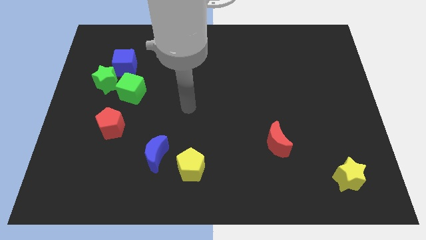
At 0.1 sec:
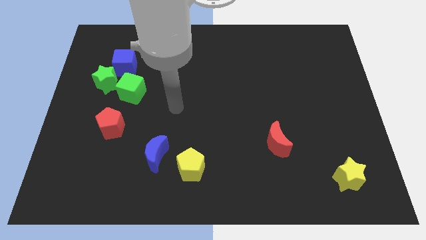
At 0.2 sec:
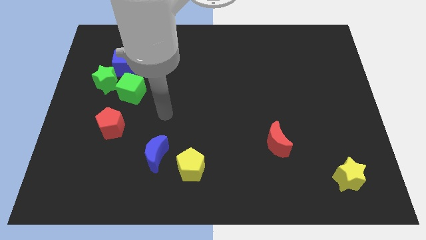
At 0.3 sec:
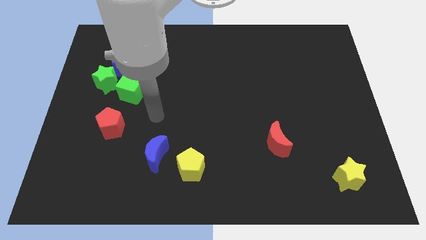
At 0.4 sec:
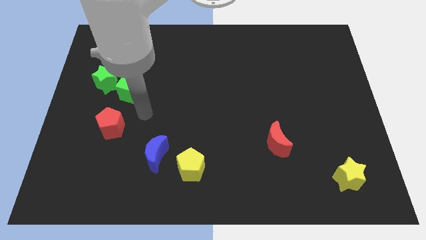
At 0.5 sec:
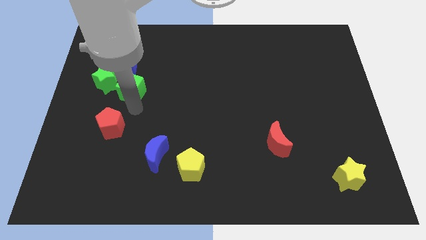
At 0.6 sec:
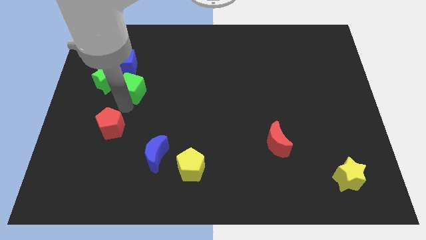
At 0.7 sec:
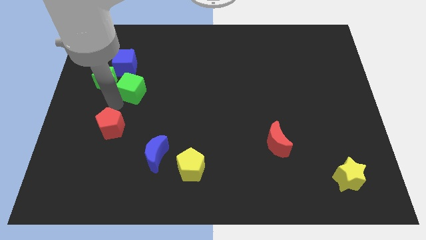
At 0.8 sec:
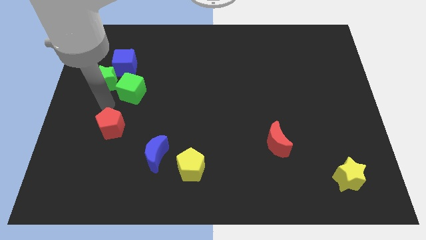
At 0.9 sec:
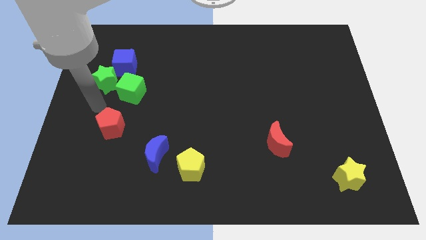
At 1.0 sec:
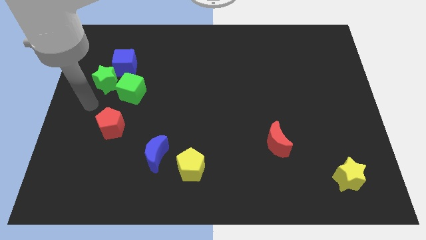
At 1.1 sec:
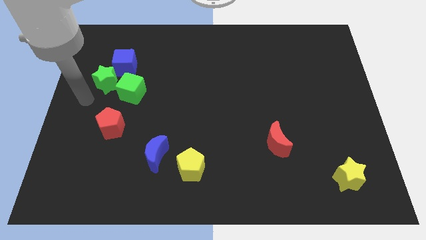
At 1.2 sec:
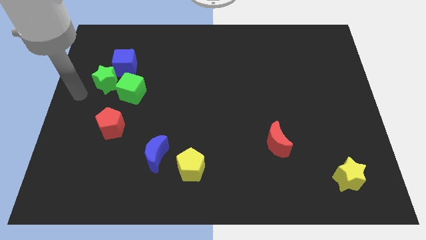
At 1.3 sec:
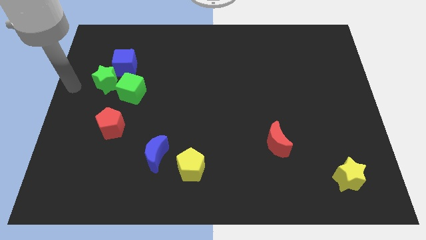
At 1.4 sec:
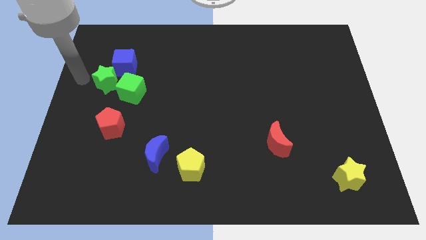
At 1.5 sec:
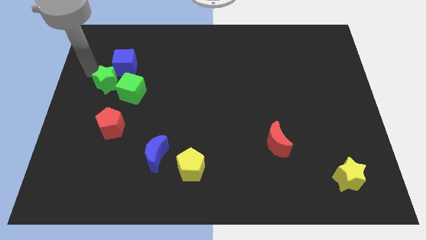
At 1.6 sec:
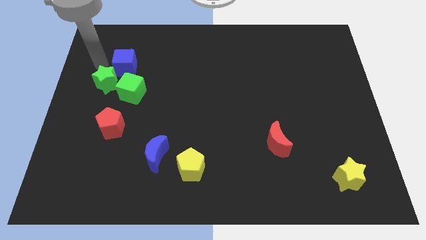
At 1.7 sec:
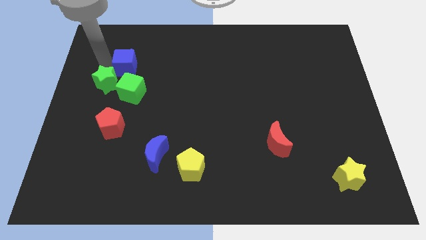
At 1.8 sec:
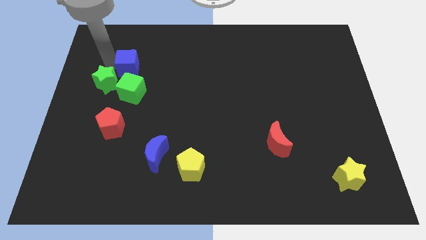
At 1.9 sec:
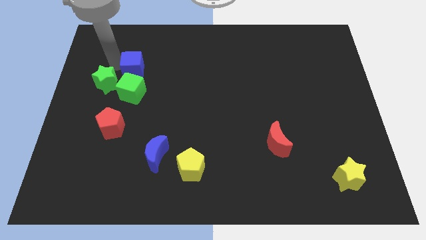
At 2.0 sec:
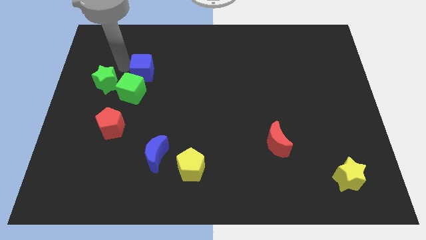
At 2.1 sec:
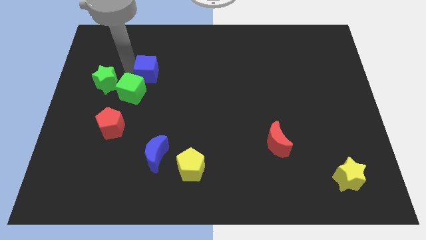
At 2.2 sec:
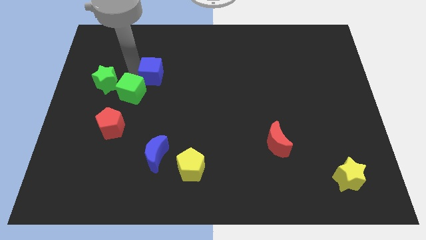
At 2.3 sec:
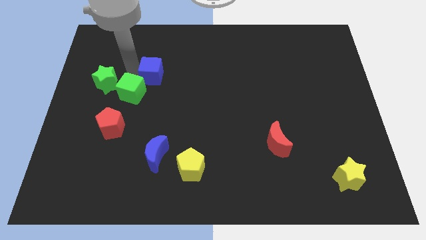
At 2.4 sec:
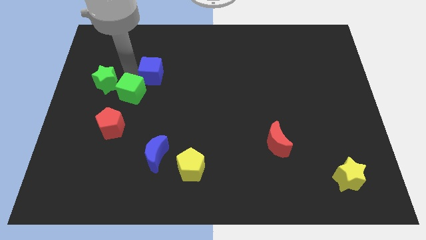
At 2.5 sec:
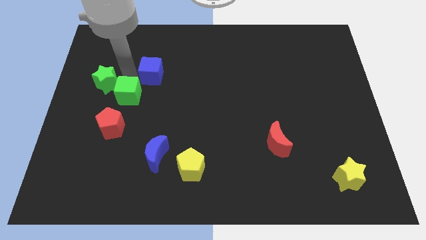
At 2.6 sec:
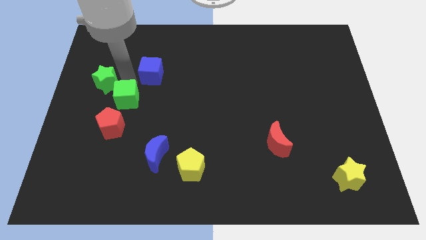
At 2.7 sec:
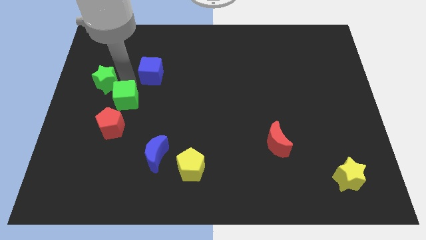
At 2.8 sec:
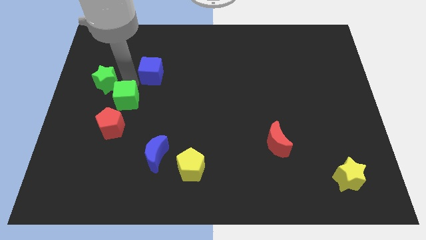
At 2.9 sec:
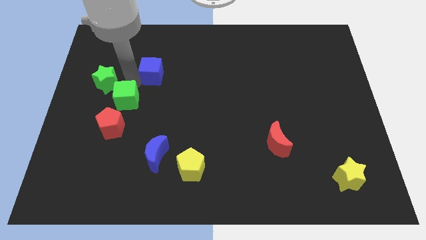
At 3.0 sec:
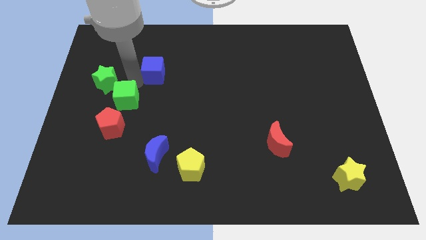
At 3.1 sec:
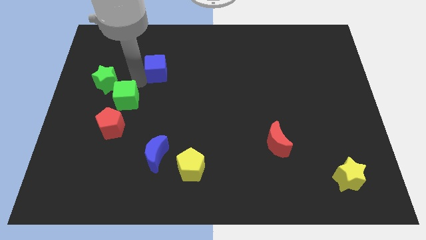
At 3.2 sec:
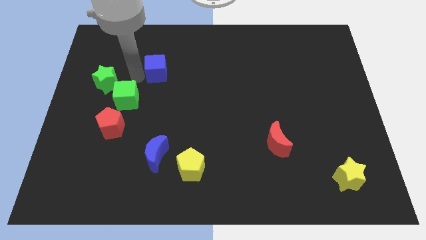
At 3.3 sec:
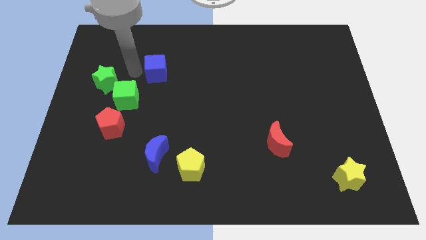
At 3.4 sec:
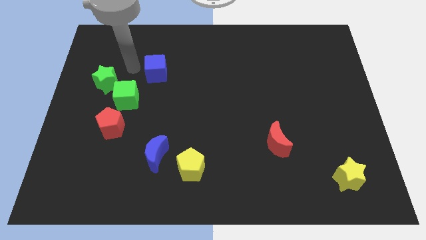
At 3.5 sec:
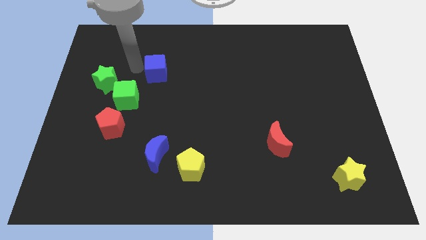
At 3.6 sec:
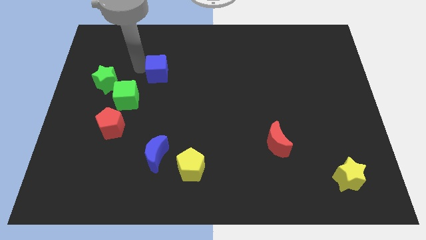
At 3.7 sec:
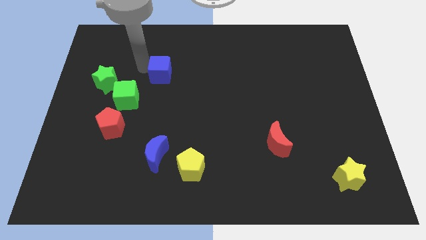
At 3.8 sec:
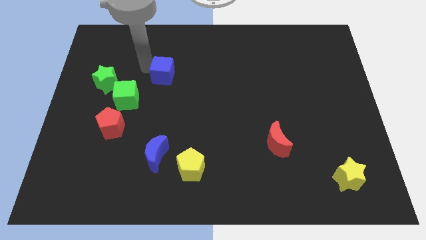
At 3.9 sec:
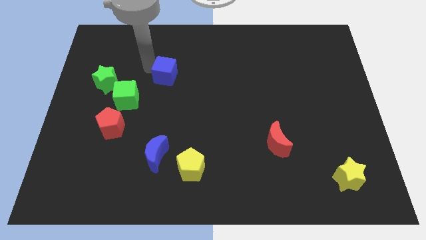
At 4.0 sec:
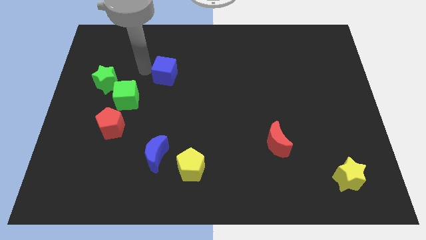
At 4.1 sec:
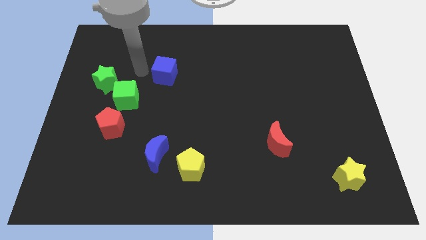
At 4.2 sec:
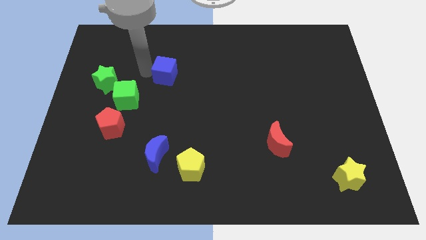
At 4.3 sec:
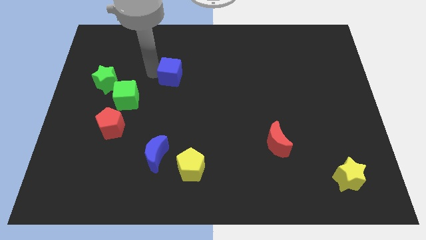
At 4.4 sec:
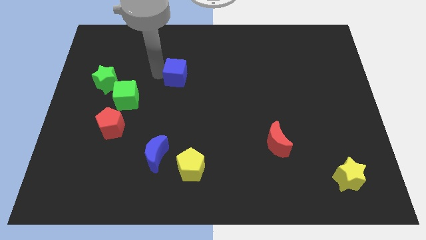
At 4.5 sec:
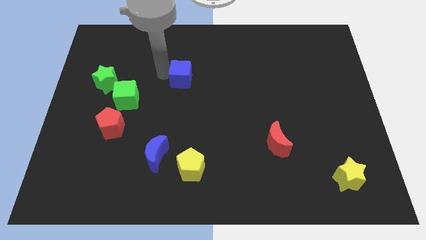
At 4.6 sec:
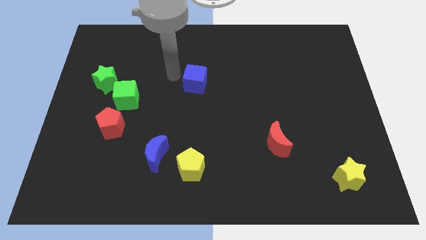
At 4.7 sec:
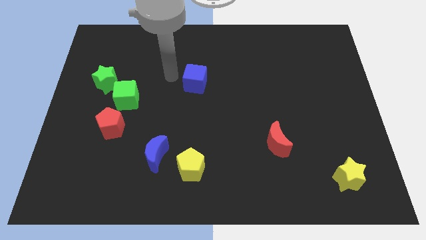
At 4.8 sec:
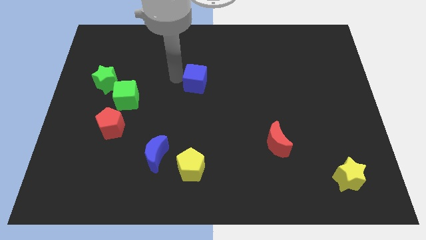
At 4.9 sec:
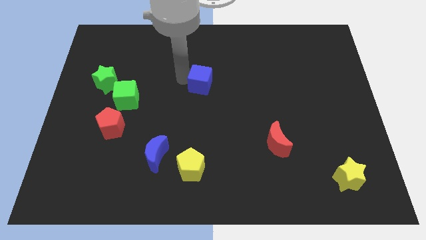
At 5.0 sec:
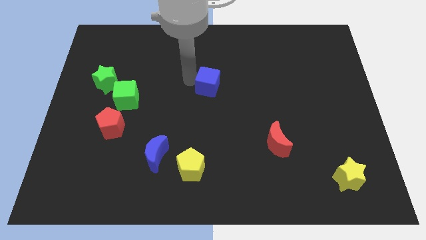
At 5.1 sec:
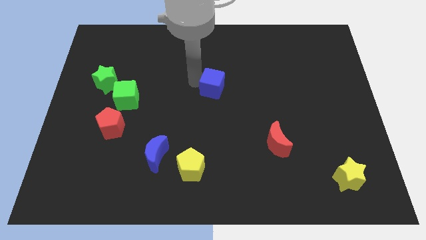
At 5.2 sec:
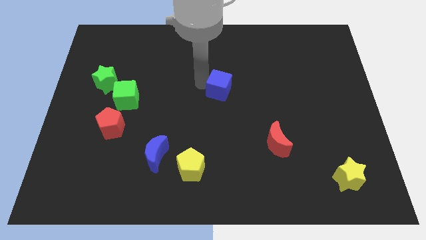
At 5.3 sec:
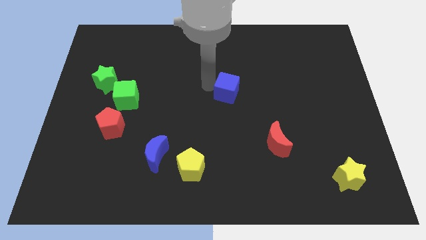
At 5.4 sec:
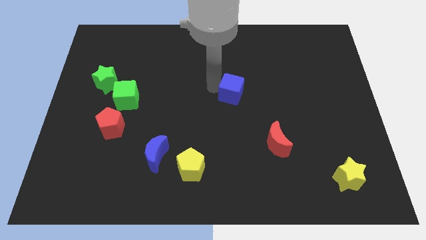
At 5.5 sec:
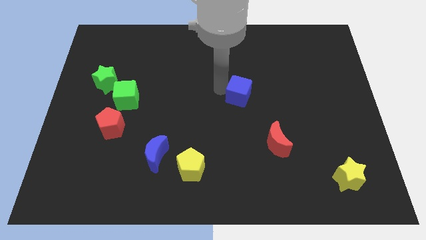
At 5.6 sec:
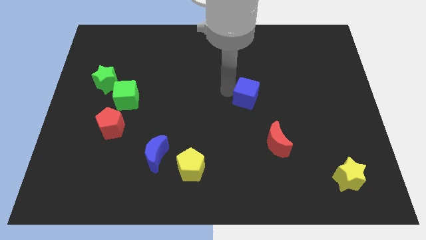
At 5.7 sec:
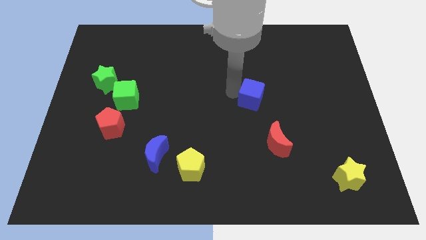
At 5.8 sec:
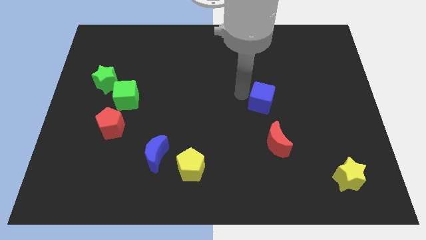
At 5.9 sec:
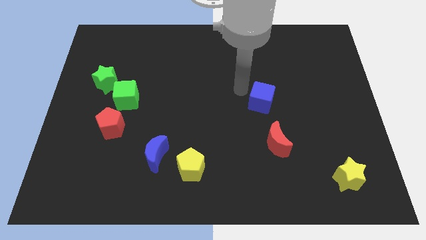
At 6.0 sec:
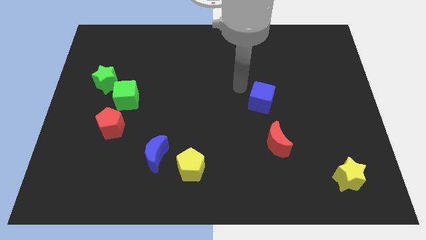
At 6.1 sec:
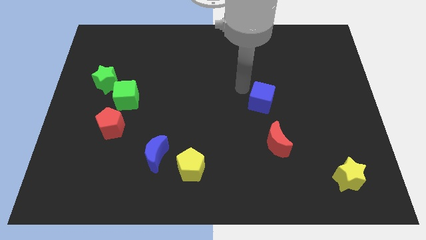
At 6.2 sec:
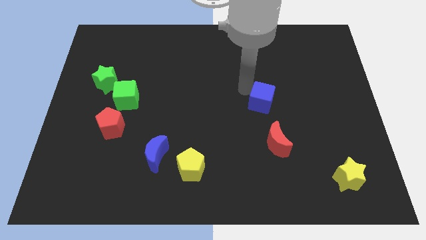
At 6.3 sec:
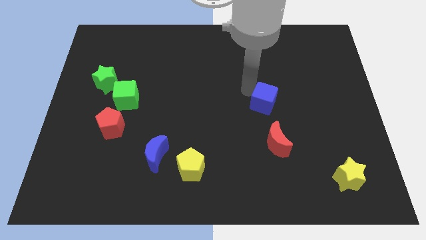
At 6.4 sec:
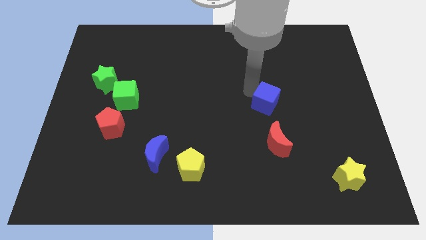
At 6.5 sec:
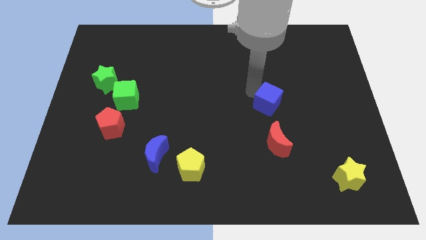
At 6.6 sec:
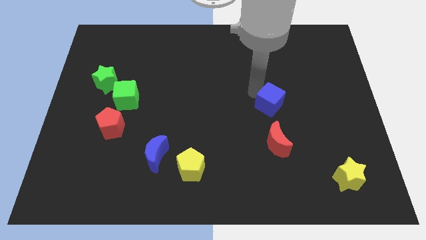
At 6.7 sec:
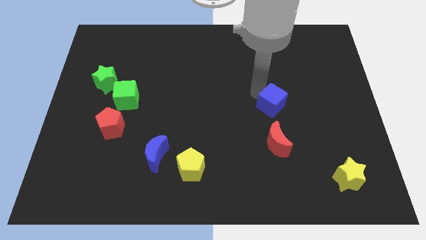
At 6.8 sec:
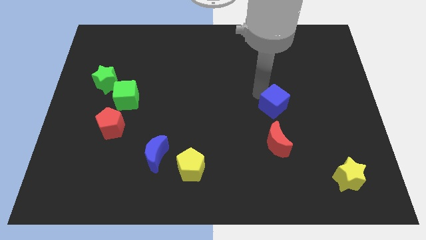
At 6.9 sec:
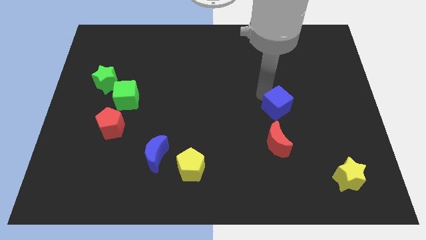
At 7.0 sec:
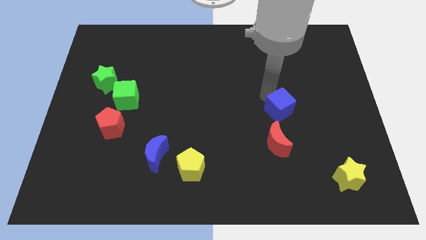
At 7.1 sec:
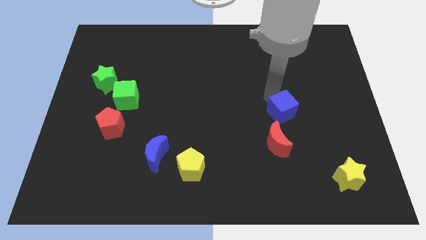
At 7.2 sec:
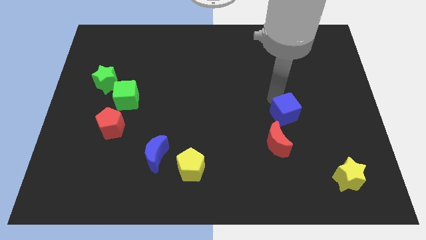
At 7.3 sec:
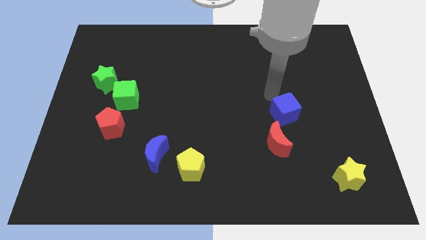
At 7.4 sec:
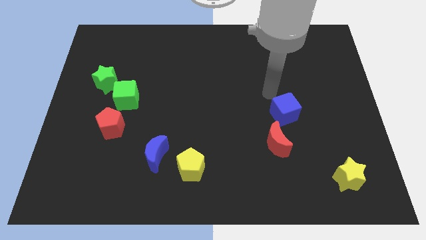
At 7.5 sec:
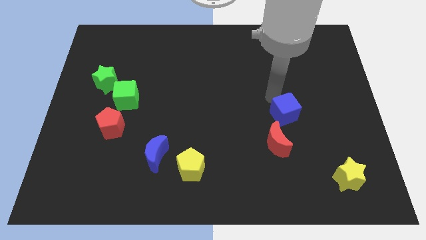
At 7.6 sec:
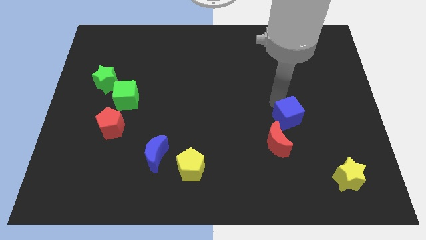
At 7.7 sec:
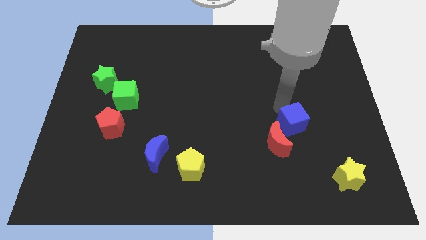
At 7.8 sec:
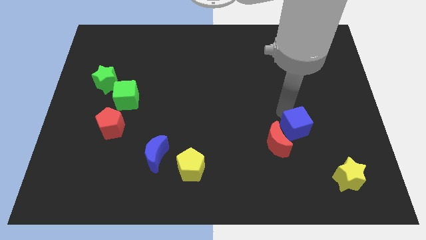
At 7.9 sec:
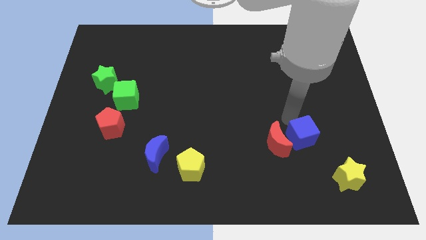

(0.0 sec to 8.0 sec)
push the blue cube to the top left side of the yellow star
